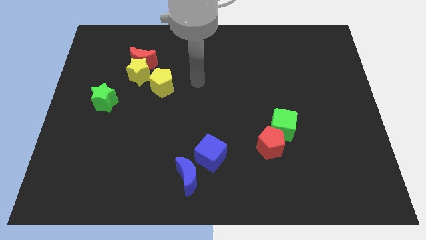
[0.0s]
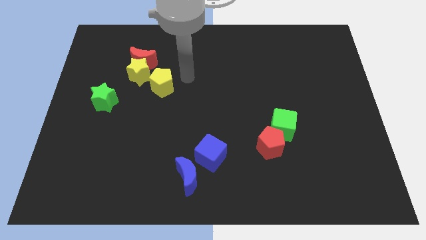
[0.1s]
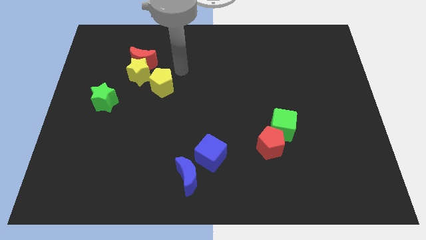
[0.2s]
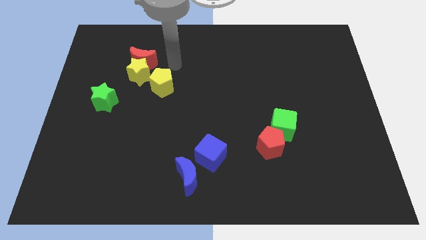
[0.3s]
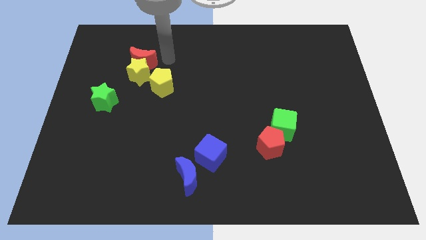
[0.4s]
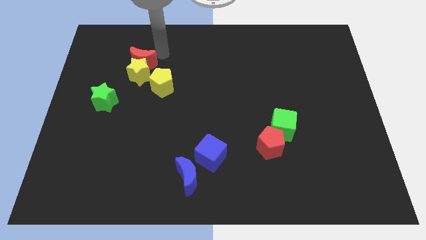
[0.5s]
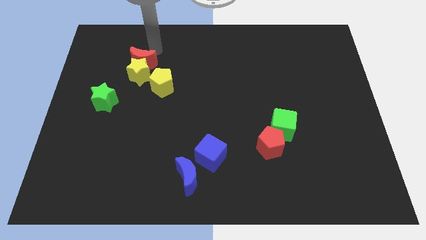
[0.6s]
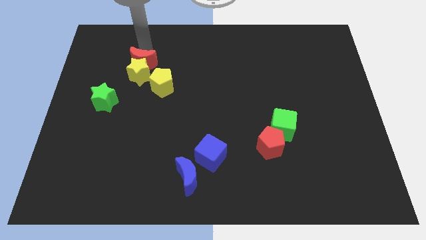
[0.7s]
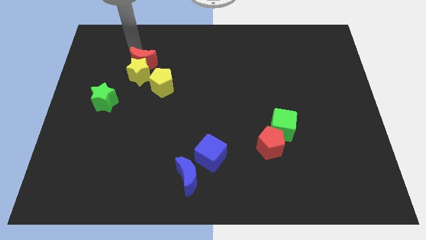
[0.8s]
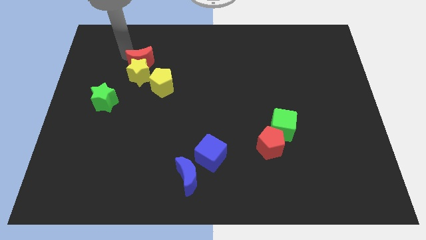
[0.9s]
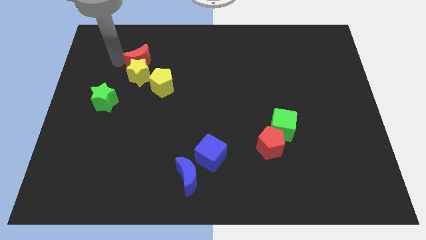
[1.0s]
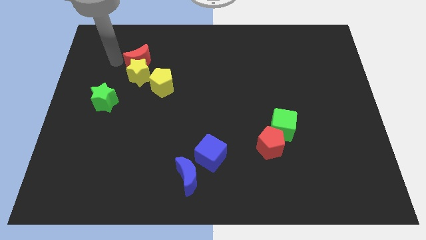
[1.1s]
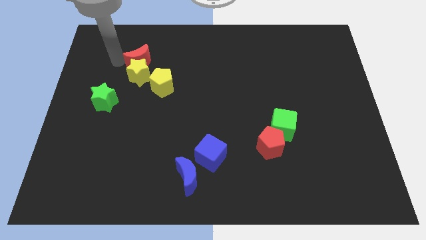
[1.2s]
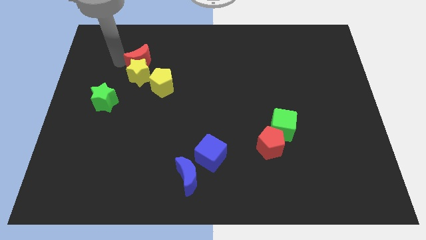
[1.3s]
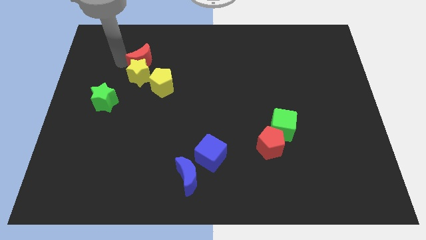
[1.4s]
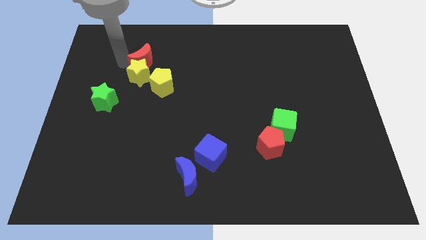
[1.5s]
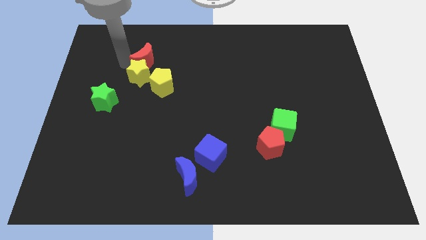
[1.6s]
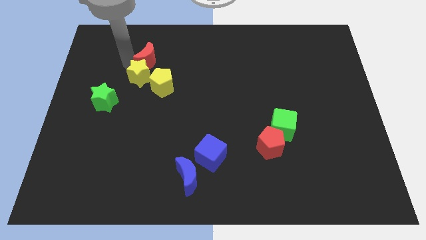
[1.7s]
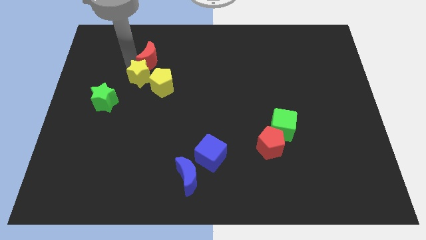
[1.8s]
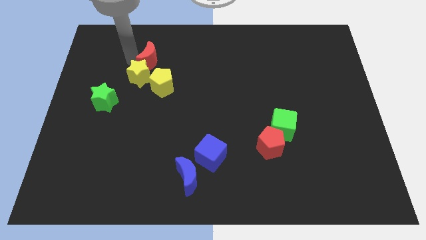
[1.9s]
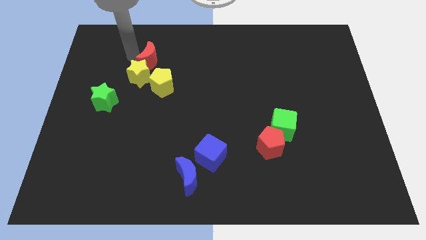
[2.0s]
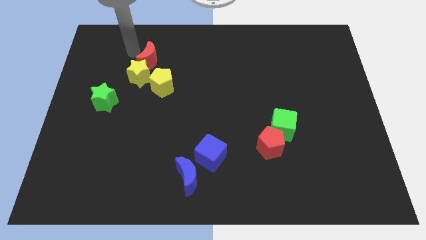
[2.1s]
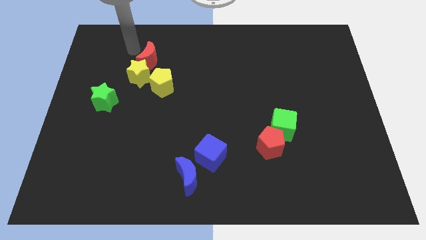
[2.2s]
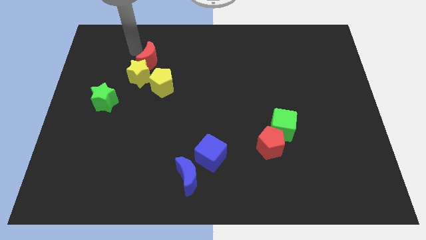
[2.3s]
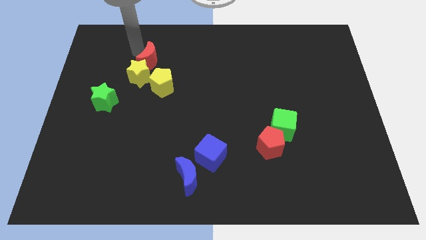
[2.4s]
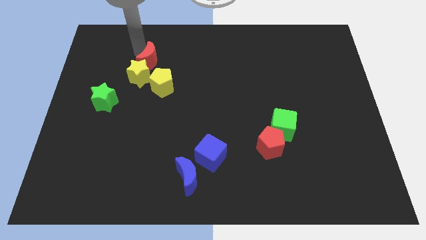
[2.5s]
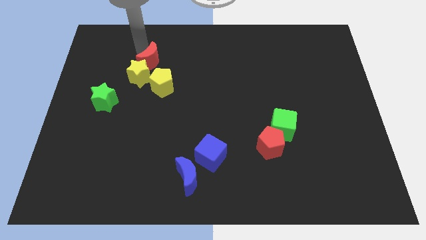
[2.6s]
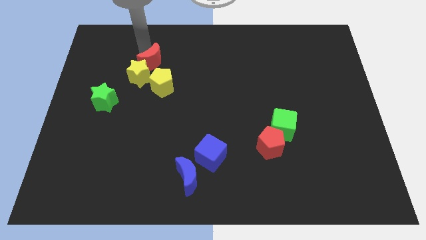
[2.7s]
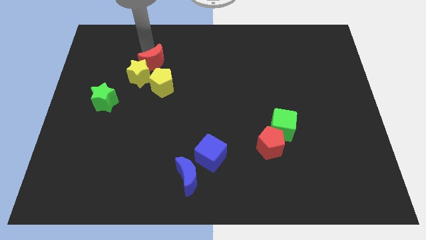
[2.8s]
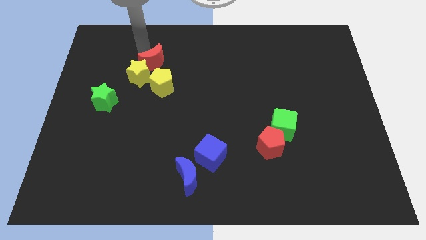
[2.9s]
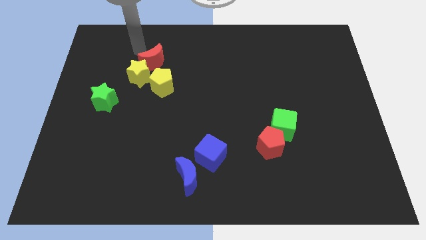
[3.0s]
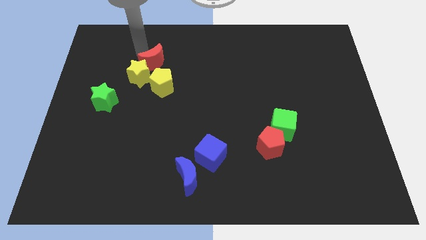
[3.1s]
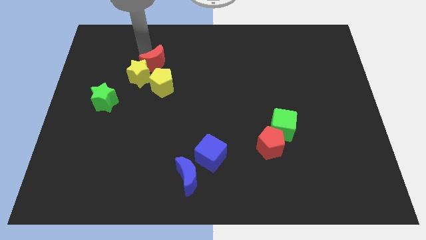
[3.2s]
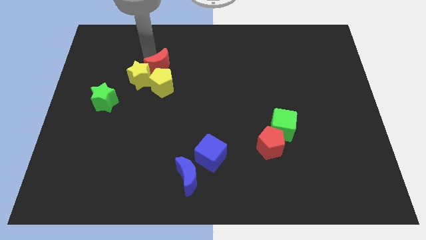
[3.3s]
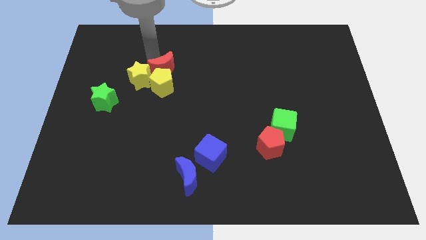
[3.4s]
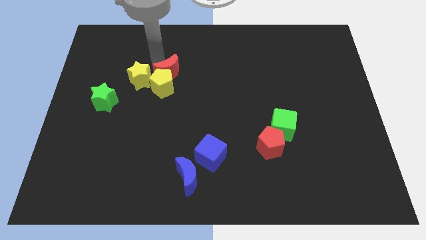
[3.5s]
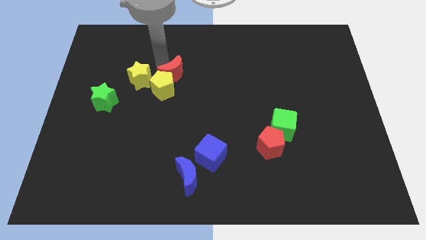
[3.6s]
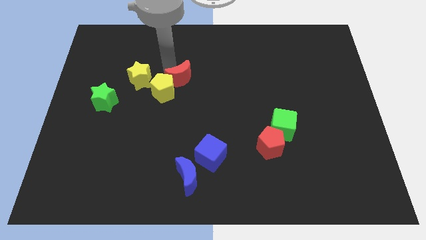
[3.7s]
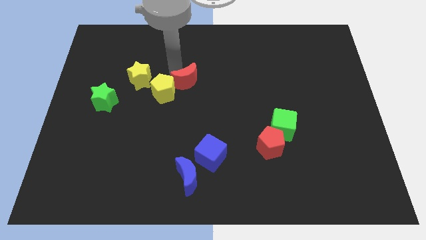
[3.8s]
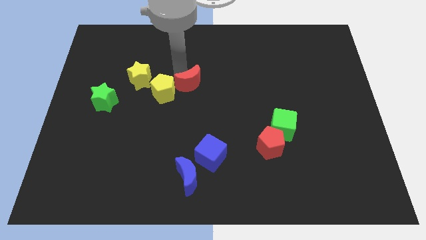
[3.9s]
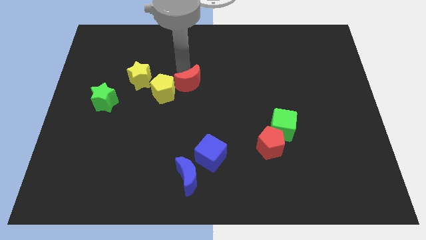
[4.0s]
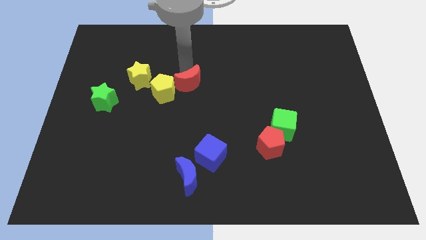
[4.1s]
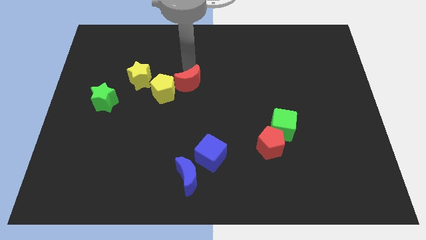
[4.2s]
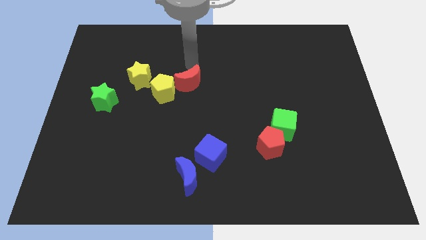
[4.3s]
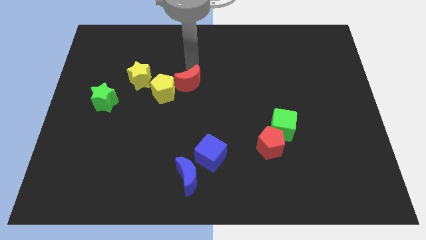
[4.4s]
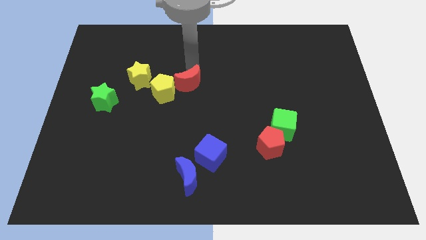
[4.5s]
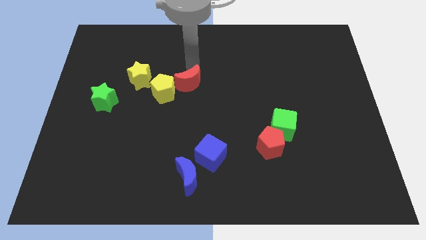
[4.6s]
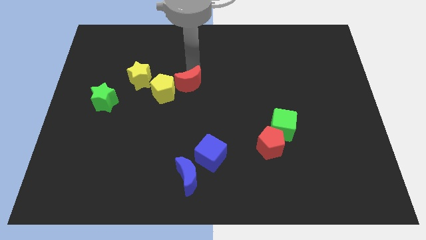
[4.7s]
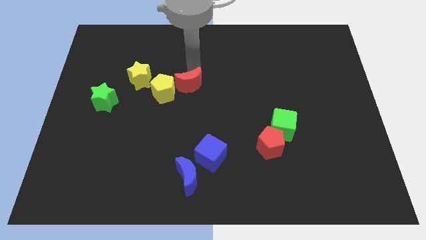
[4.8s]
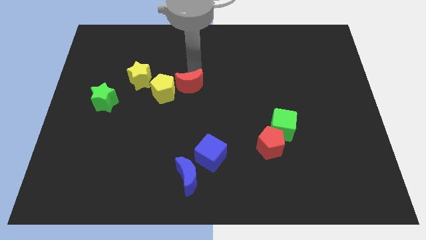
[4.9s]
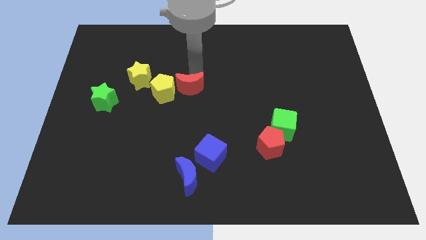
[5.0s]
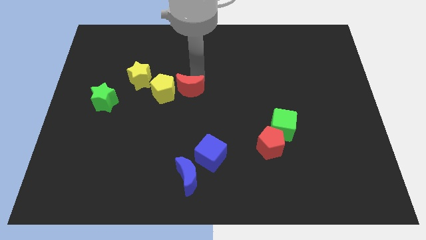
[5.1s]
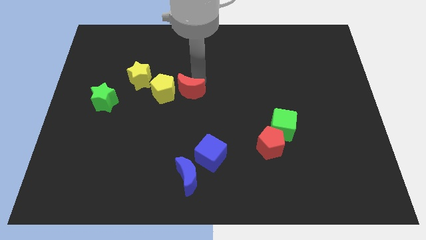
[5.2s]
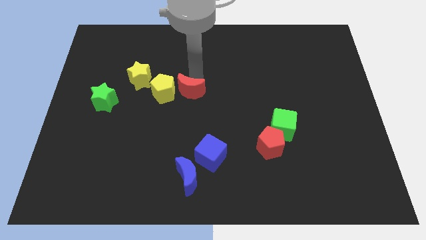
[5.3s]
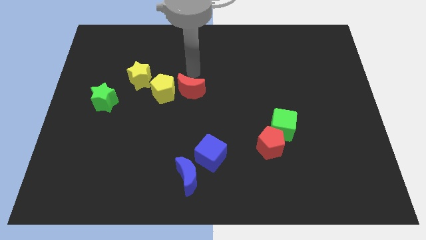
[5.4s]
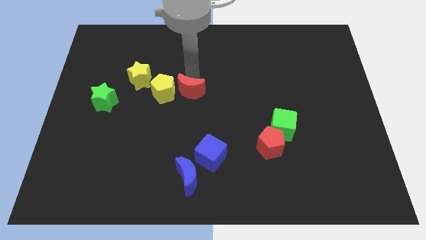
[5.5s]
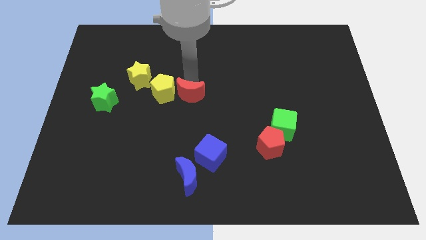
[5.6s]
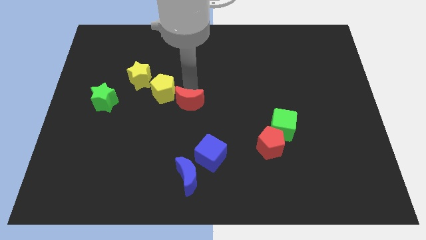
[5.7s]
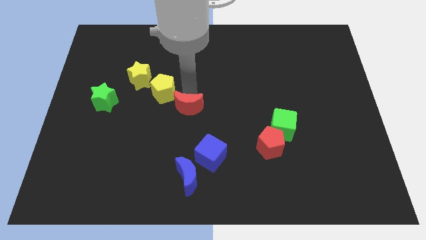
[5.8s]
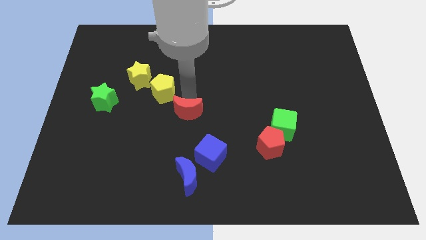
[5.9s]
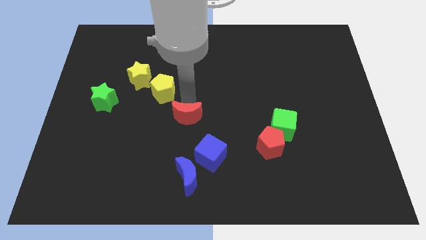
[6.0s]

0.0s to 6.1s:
slide the red moon to the top left of the blue cube
